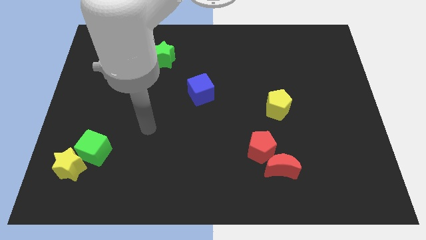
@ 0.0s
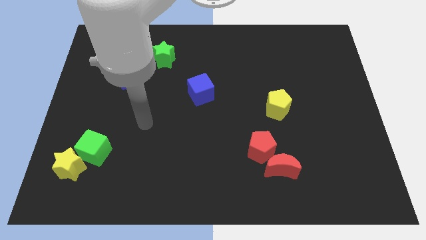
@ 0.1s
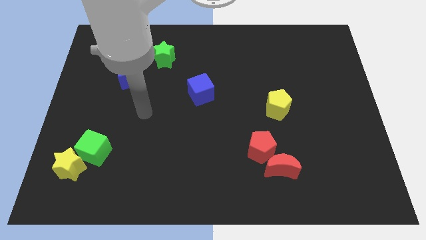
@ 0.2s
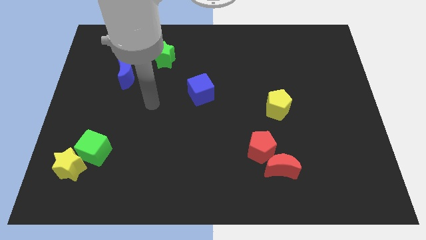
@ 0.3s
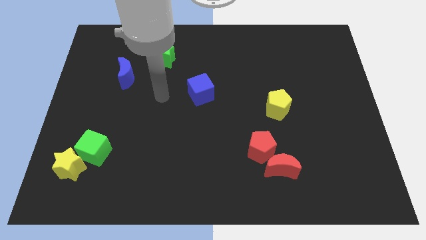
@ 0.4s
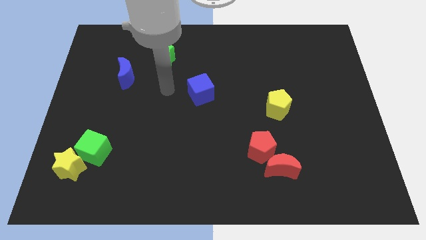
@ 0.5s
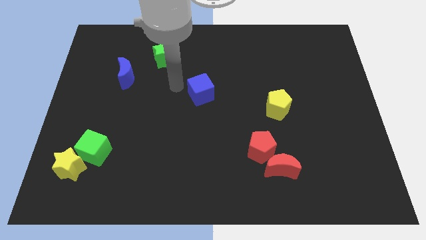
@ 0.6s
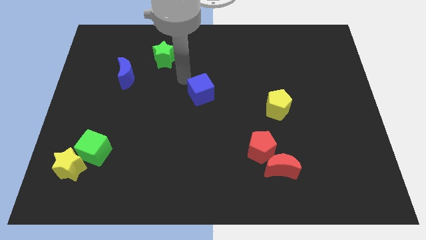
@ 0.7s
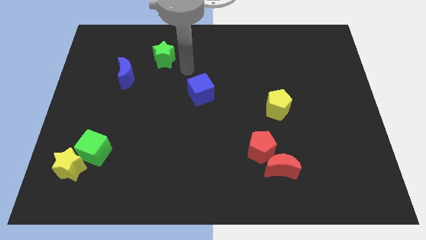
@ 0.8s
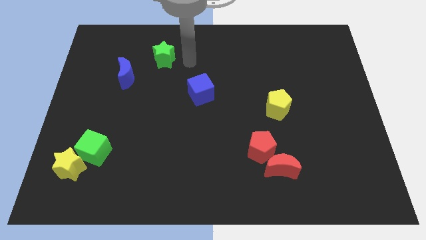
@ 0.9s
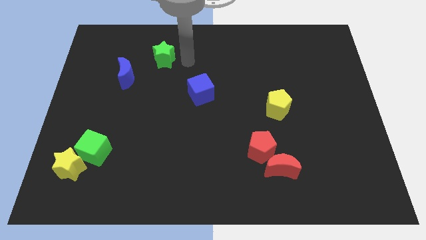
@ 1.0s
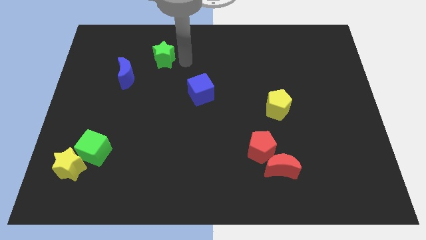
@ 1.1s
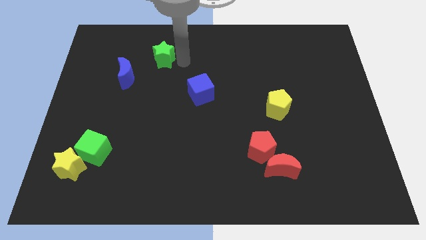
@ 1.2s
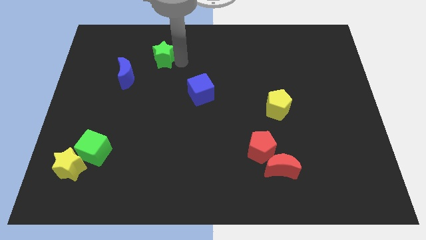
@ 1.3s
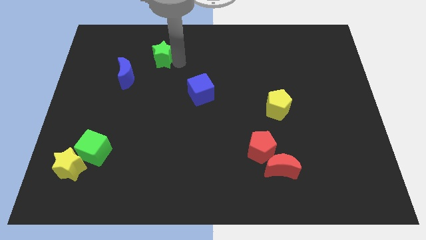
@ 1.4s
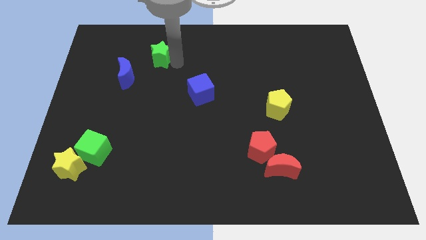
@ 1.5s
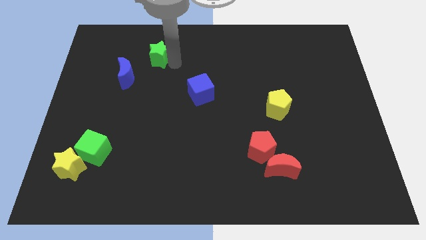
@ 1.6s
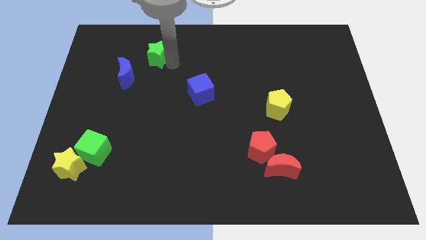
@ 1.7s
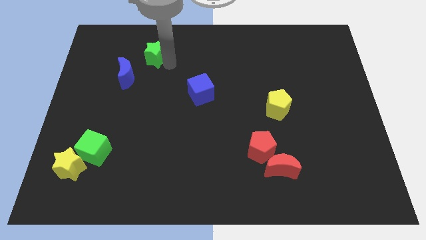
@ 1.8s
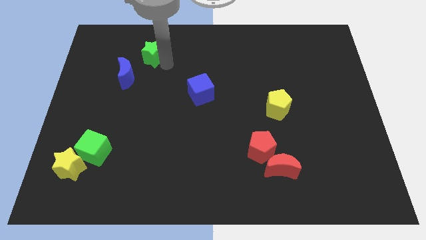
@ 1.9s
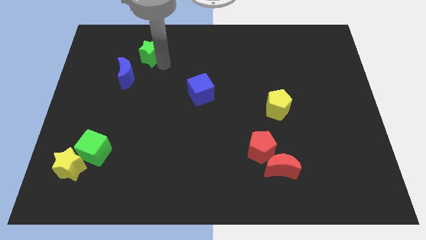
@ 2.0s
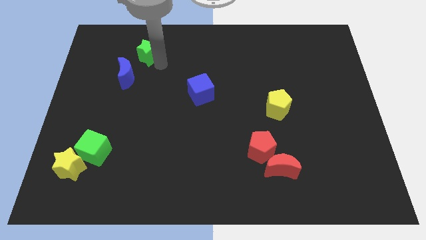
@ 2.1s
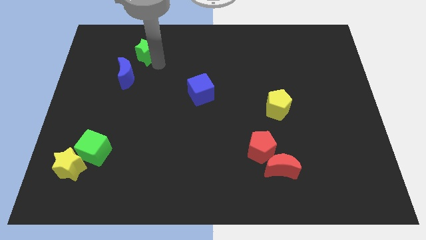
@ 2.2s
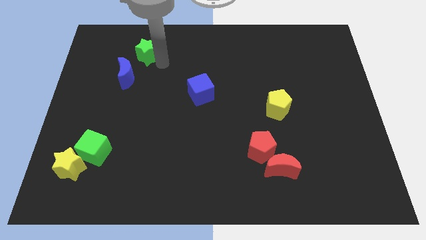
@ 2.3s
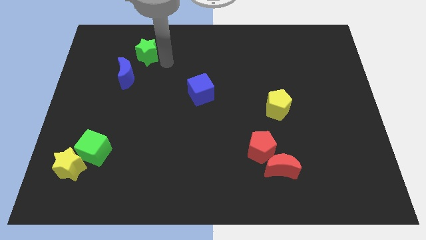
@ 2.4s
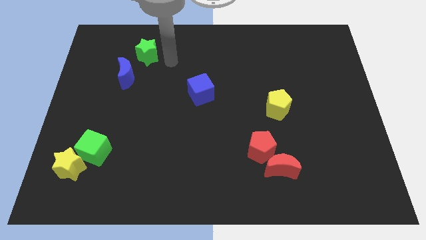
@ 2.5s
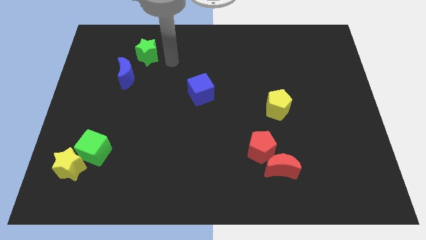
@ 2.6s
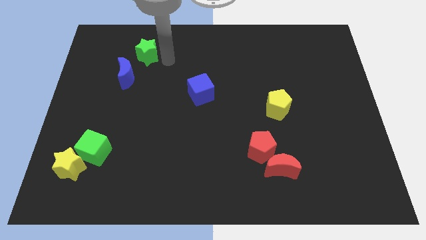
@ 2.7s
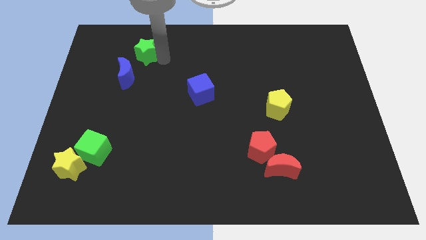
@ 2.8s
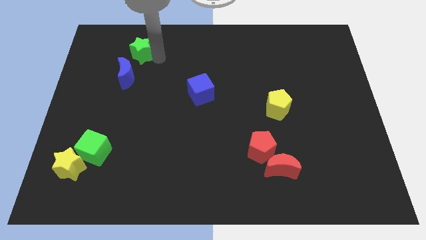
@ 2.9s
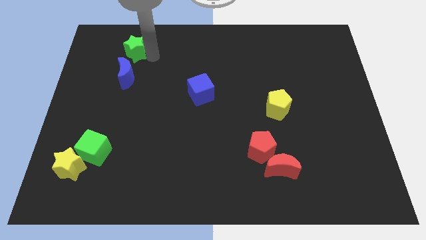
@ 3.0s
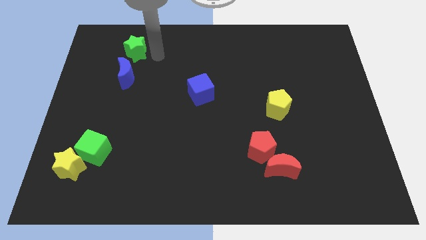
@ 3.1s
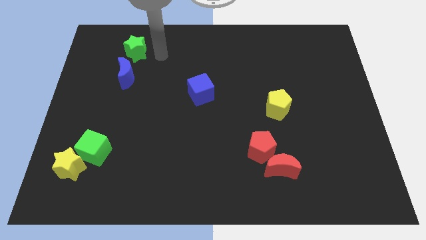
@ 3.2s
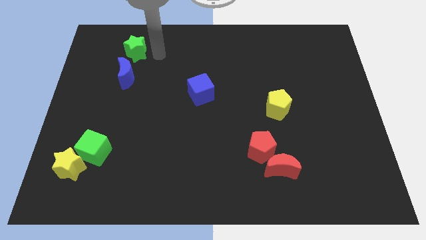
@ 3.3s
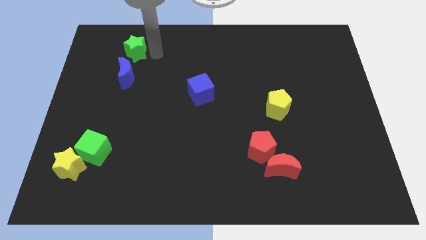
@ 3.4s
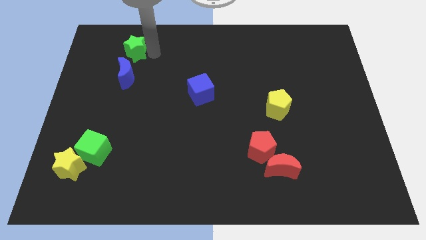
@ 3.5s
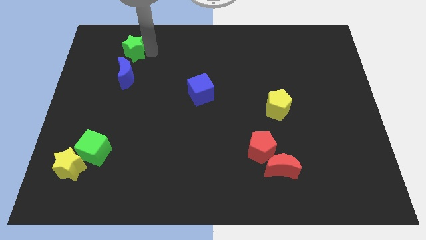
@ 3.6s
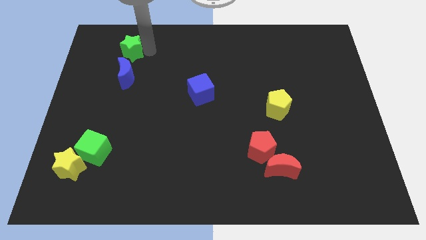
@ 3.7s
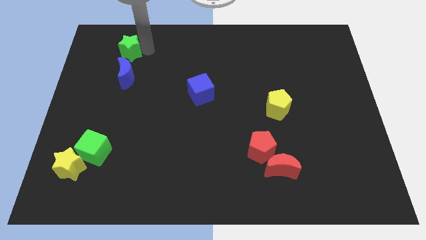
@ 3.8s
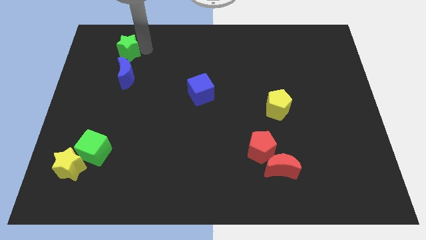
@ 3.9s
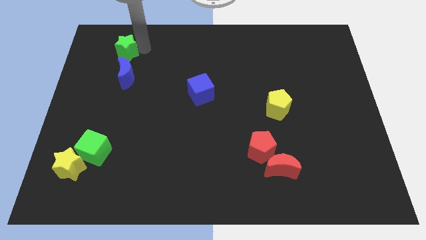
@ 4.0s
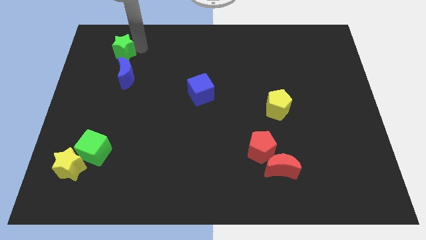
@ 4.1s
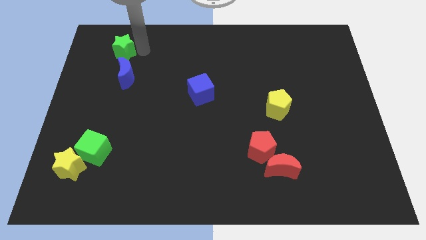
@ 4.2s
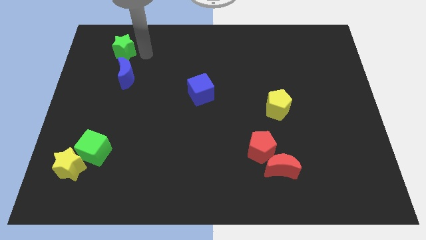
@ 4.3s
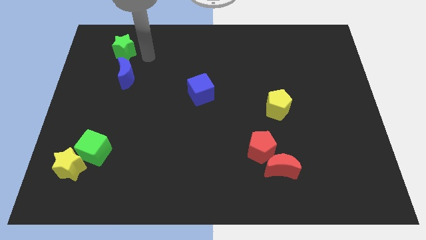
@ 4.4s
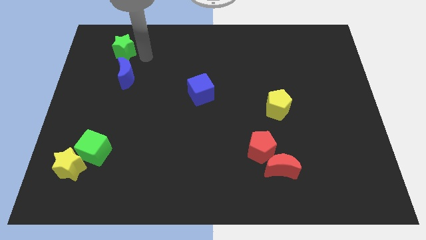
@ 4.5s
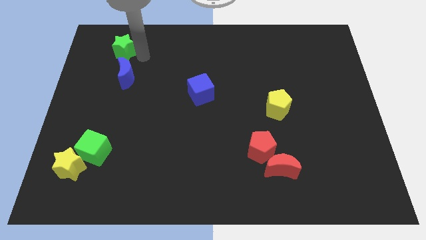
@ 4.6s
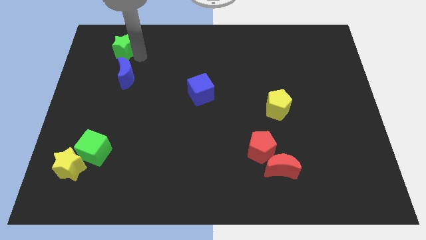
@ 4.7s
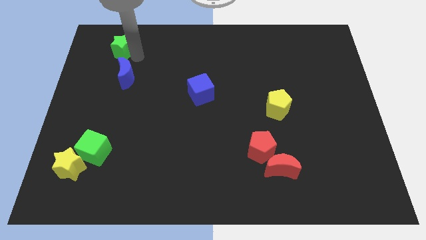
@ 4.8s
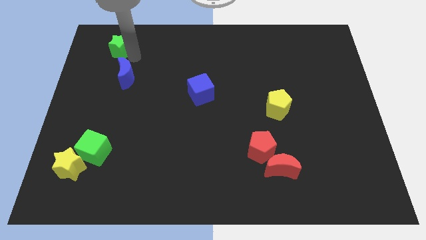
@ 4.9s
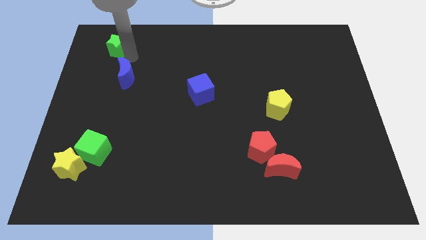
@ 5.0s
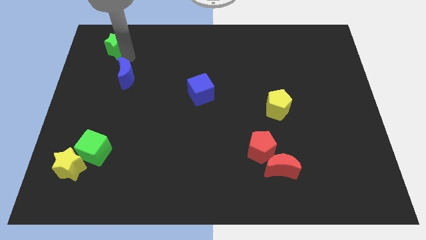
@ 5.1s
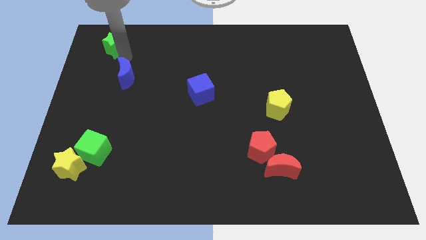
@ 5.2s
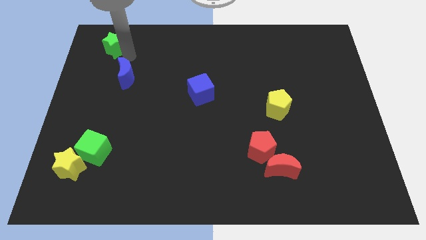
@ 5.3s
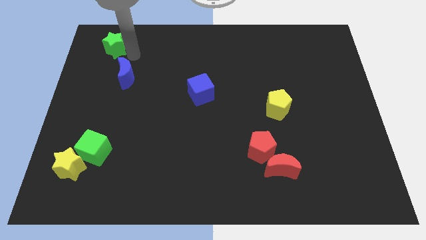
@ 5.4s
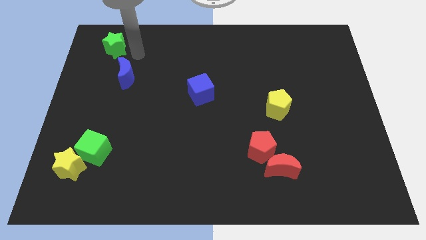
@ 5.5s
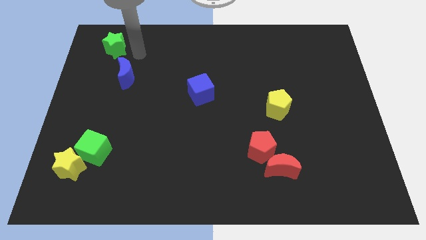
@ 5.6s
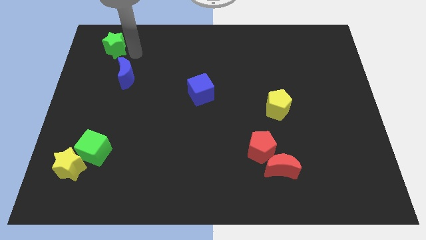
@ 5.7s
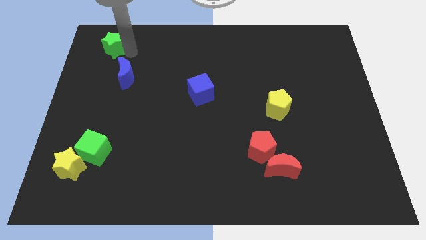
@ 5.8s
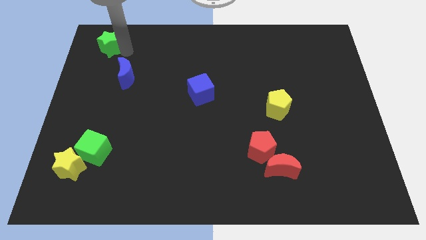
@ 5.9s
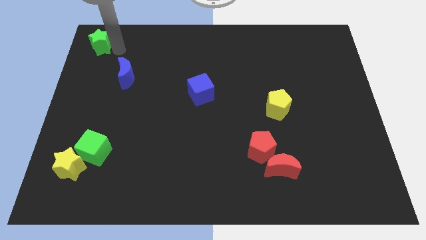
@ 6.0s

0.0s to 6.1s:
push the green star to the upper left corner

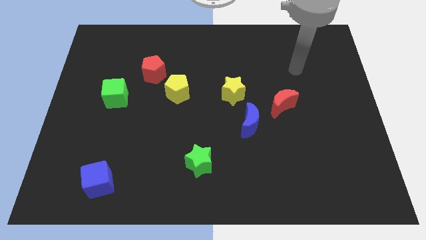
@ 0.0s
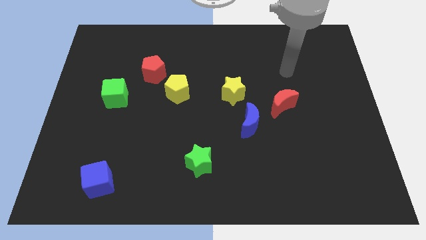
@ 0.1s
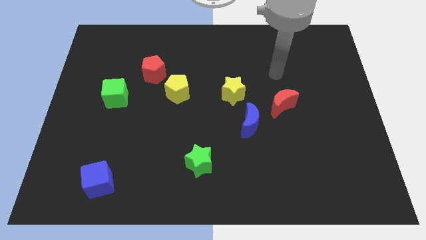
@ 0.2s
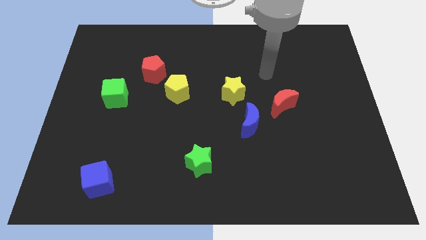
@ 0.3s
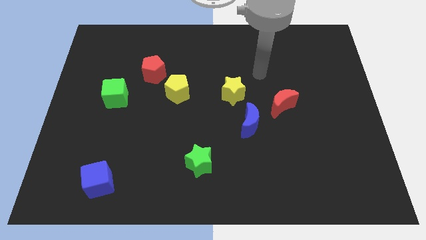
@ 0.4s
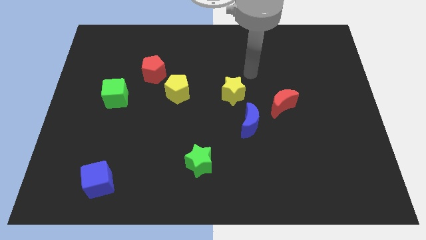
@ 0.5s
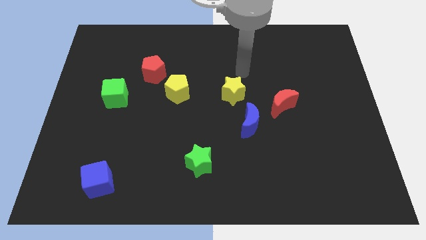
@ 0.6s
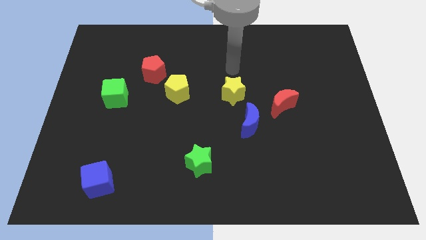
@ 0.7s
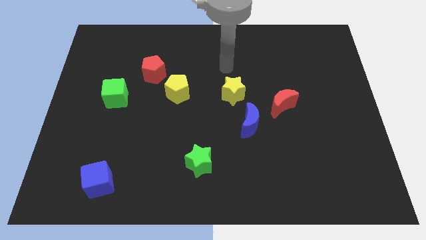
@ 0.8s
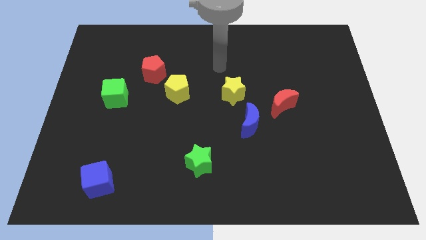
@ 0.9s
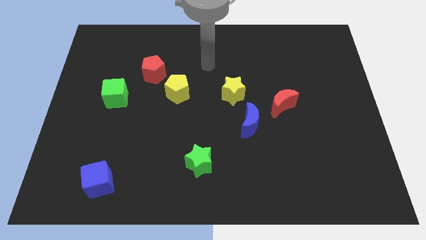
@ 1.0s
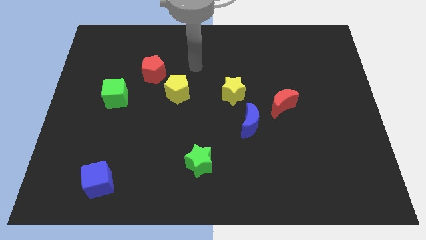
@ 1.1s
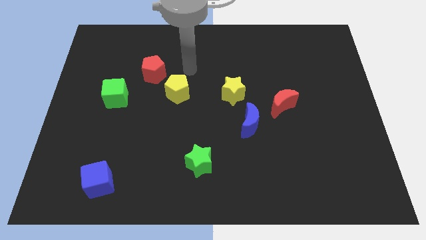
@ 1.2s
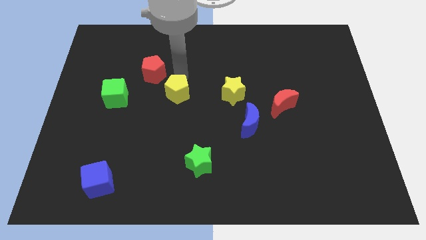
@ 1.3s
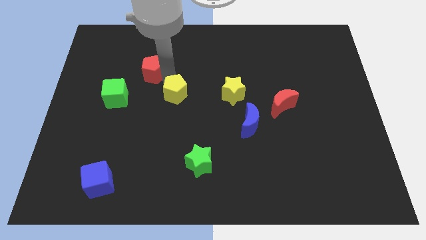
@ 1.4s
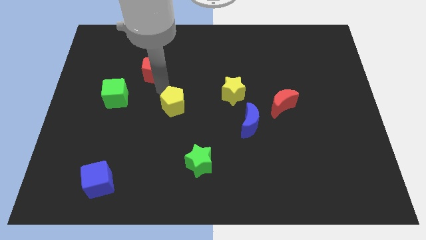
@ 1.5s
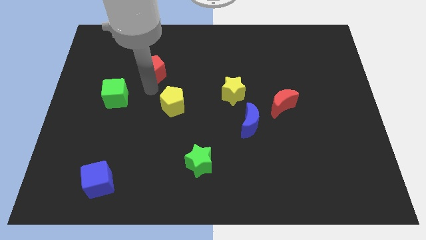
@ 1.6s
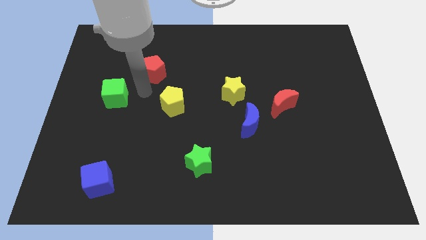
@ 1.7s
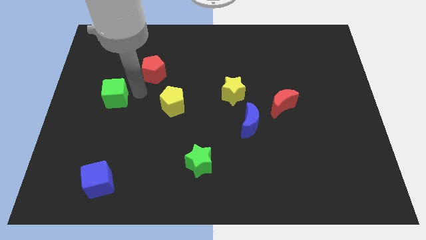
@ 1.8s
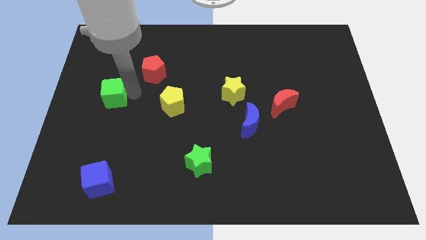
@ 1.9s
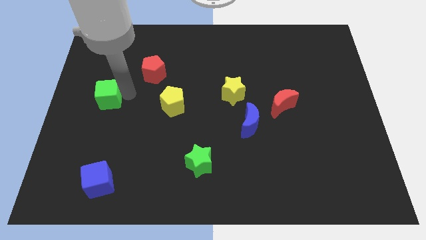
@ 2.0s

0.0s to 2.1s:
slide the green cube to the center left
